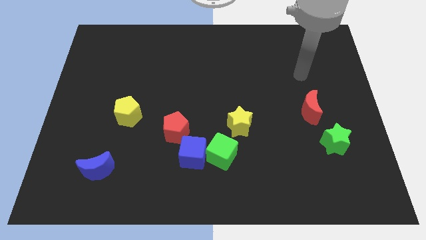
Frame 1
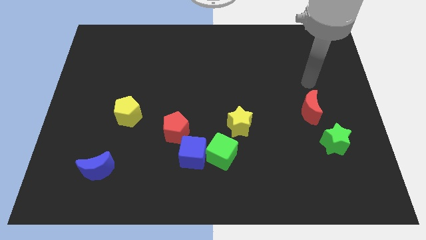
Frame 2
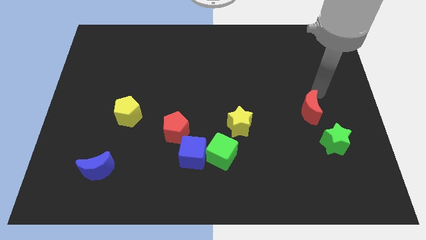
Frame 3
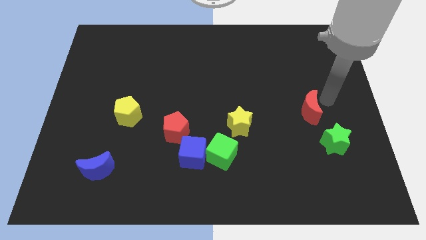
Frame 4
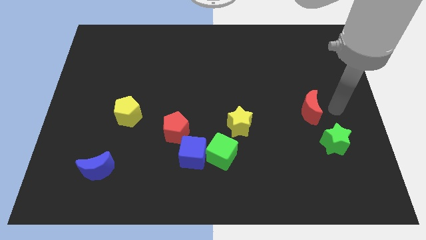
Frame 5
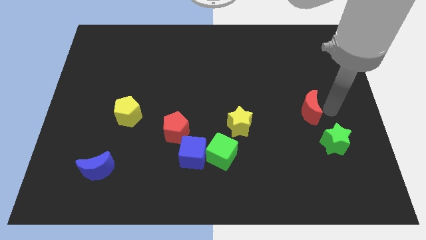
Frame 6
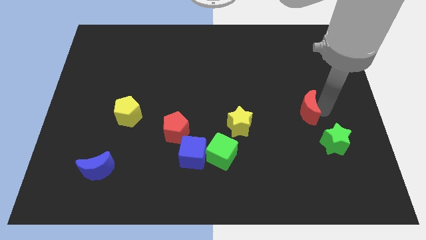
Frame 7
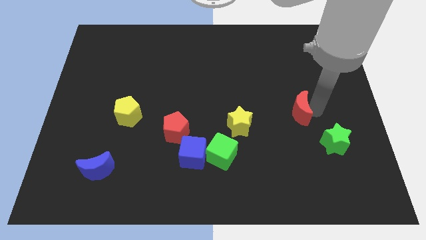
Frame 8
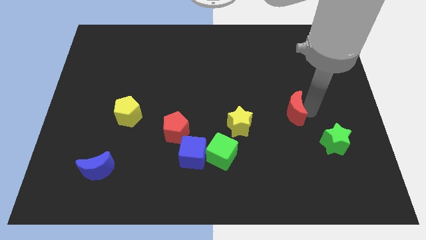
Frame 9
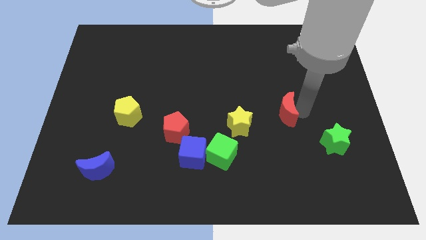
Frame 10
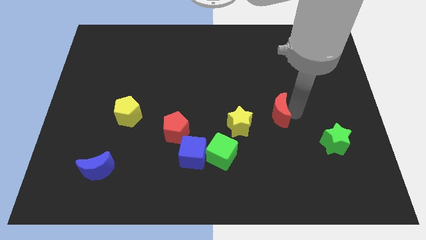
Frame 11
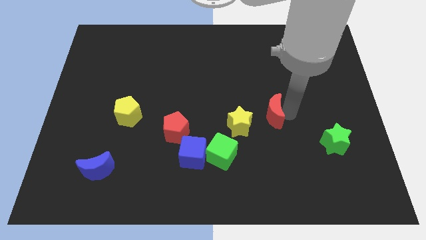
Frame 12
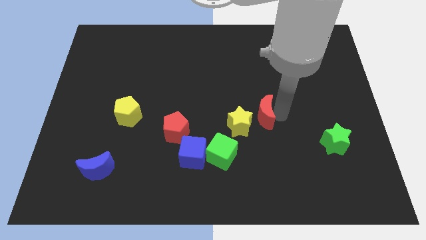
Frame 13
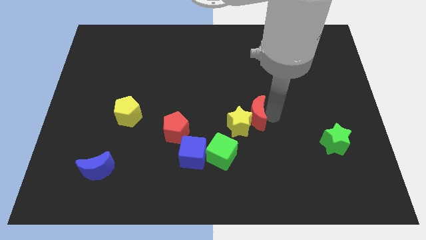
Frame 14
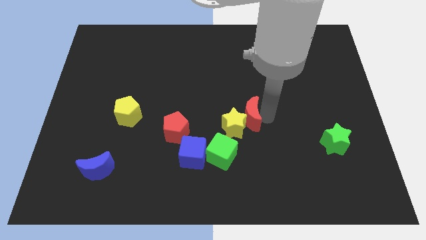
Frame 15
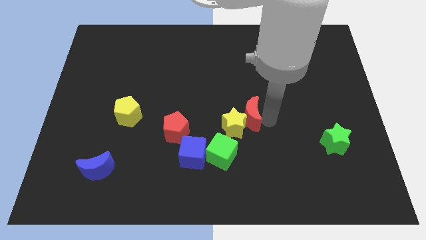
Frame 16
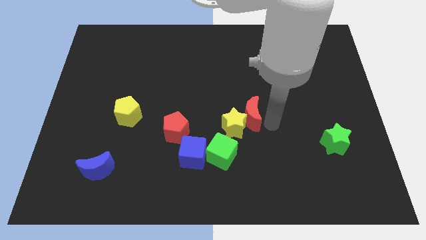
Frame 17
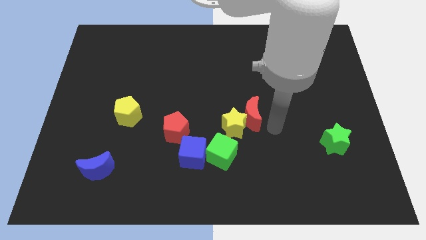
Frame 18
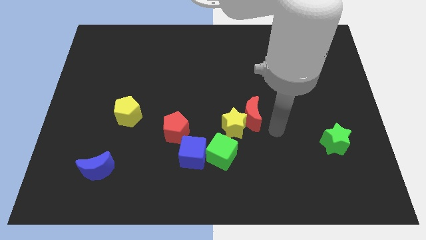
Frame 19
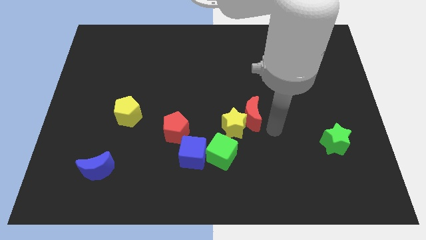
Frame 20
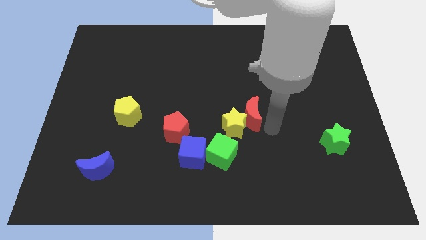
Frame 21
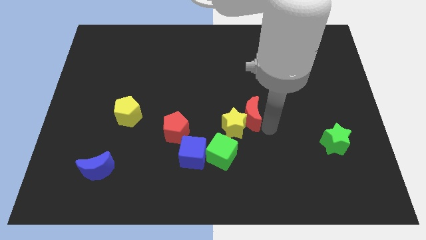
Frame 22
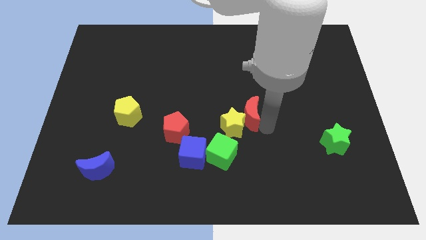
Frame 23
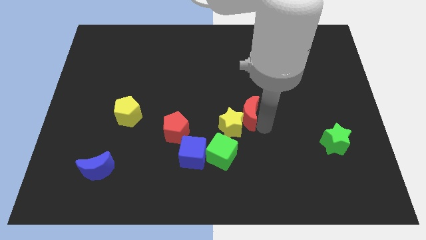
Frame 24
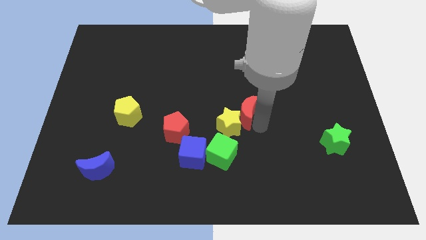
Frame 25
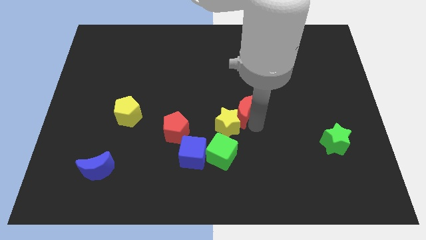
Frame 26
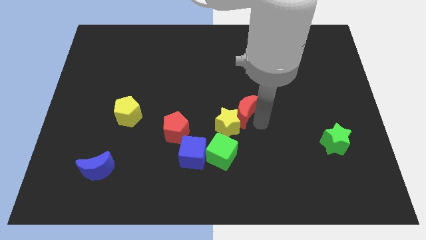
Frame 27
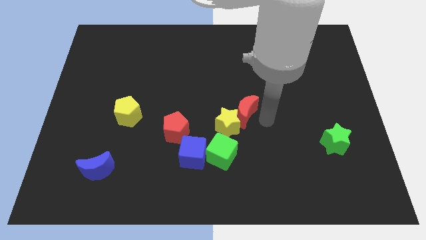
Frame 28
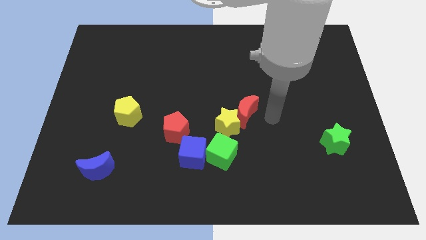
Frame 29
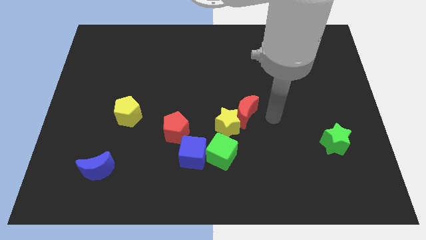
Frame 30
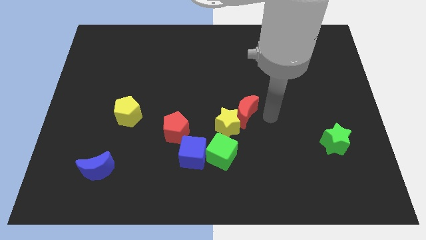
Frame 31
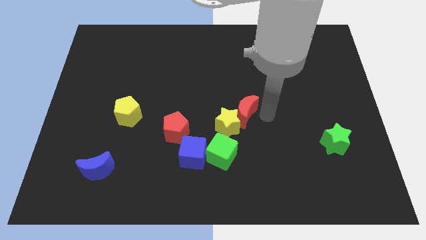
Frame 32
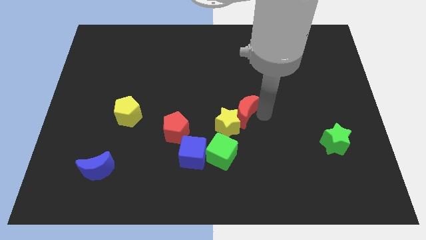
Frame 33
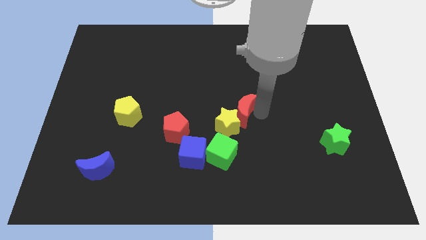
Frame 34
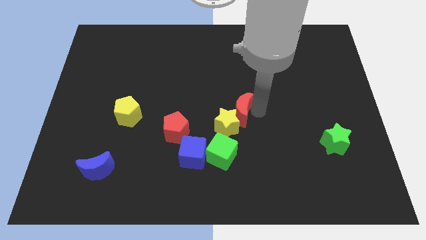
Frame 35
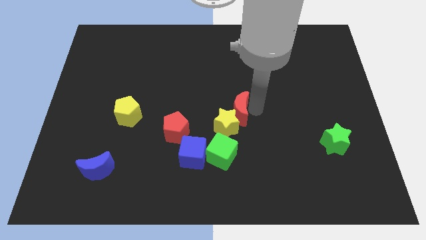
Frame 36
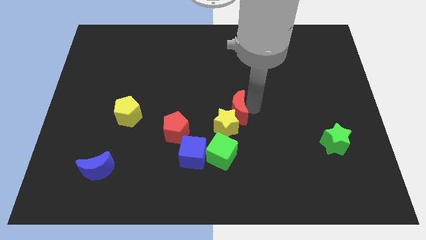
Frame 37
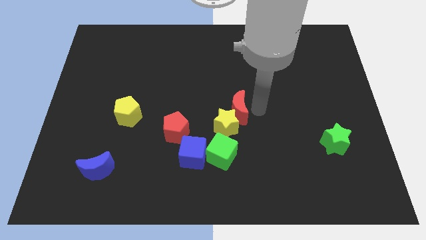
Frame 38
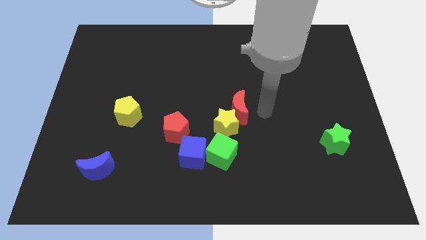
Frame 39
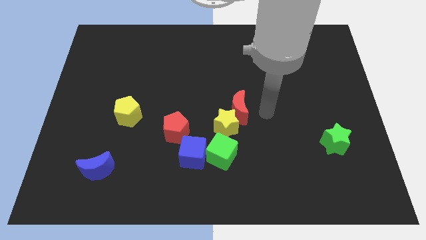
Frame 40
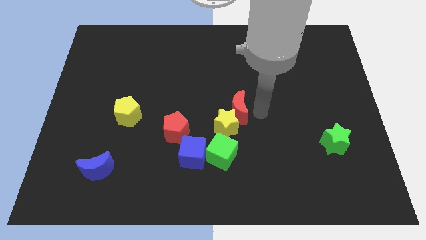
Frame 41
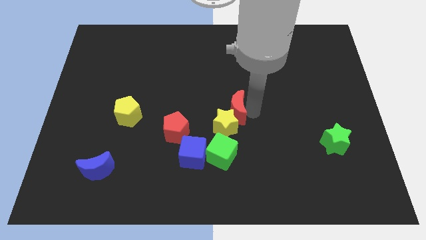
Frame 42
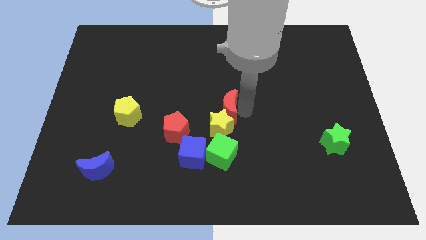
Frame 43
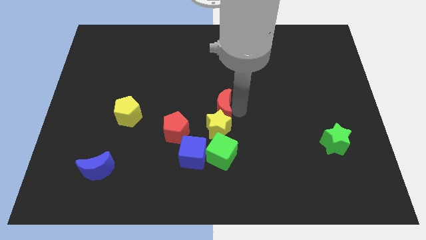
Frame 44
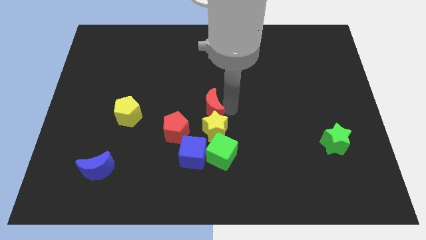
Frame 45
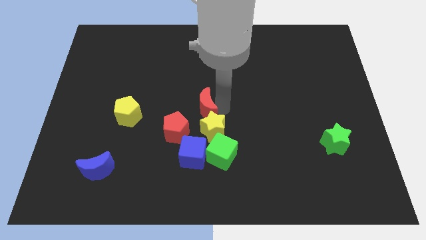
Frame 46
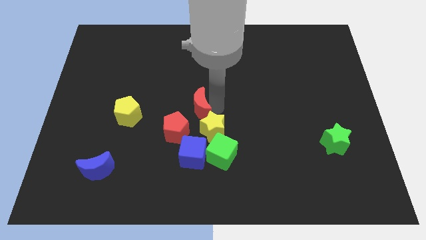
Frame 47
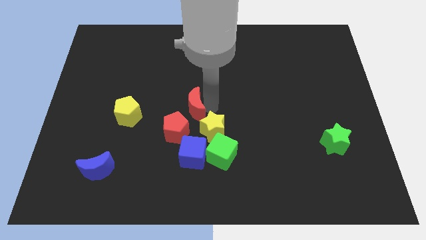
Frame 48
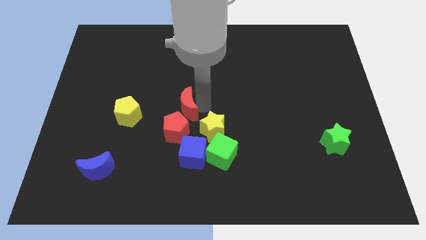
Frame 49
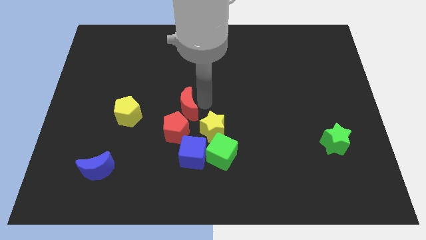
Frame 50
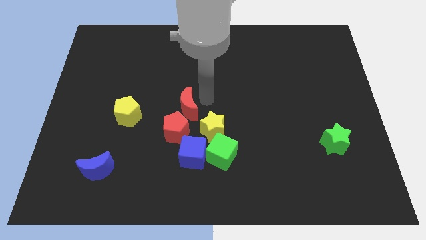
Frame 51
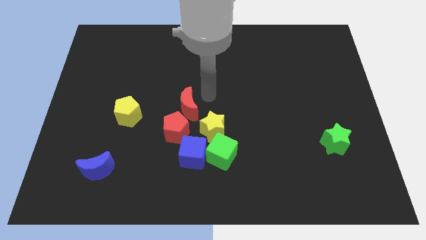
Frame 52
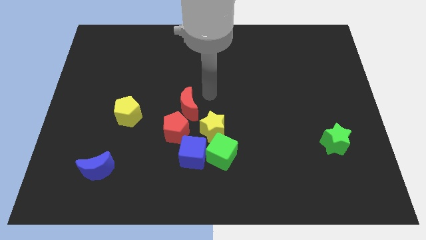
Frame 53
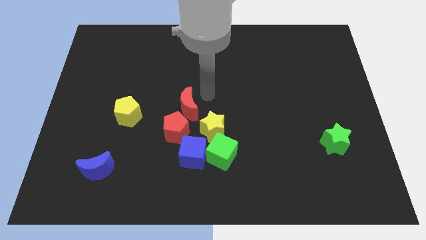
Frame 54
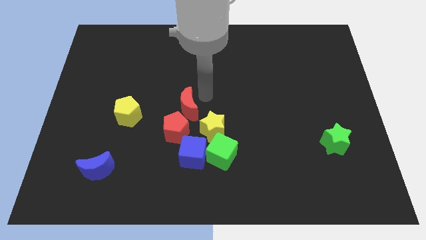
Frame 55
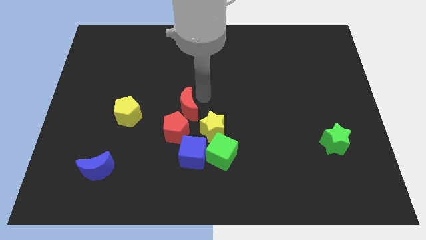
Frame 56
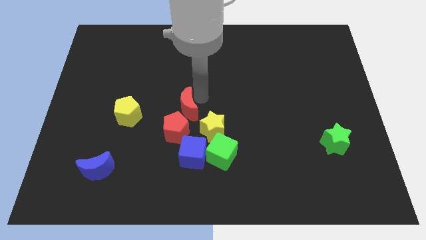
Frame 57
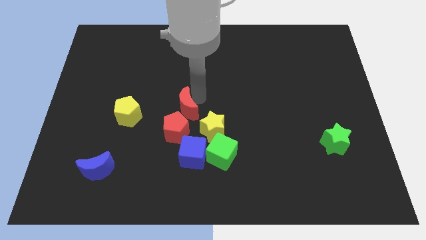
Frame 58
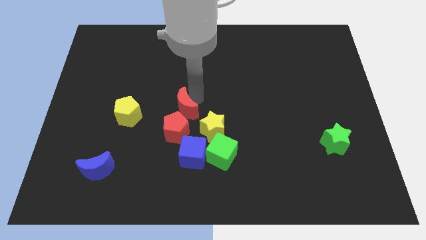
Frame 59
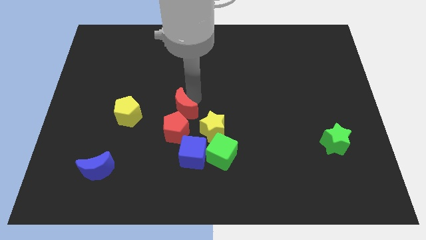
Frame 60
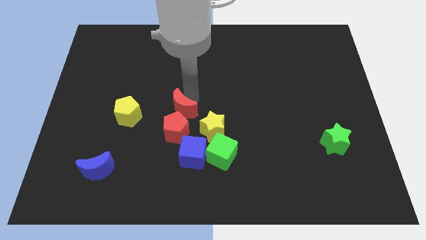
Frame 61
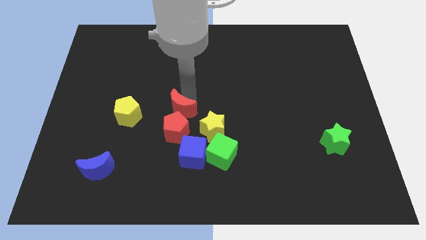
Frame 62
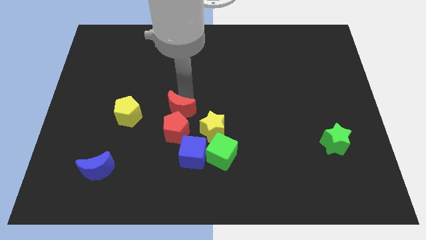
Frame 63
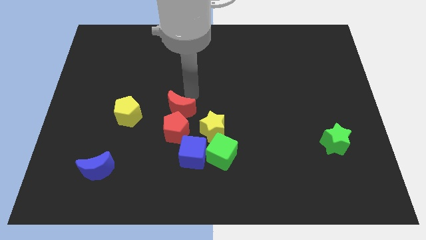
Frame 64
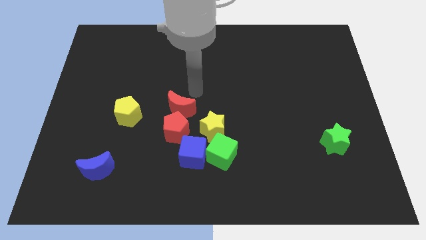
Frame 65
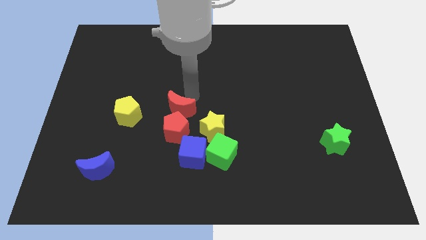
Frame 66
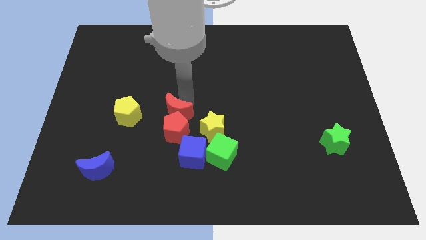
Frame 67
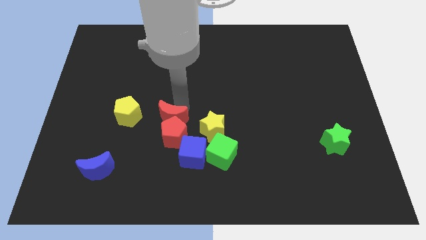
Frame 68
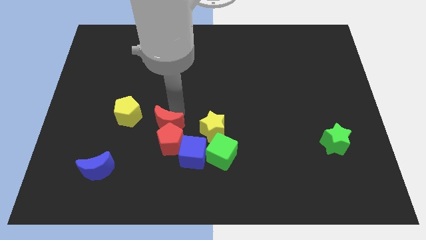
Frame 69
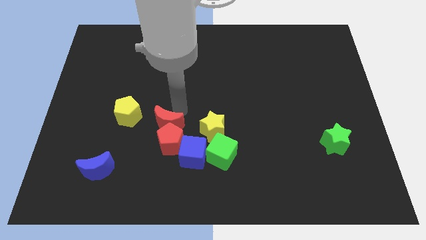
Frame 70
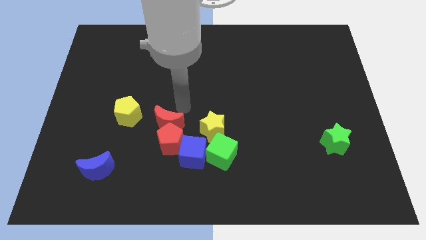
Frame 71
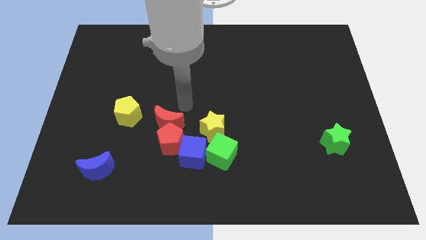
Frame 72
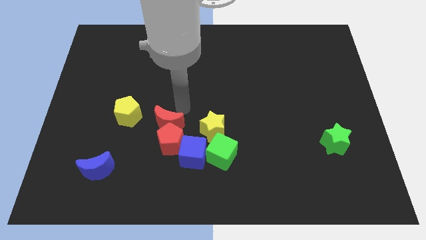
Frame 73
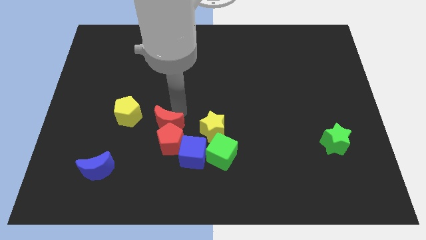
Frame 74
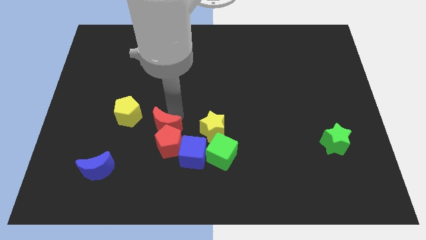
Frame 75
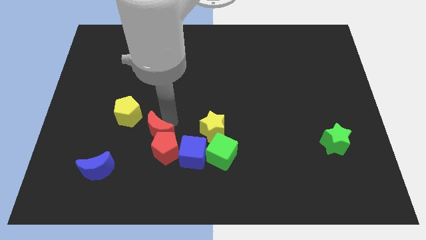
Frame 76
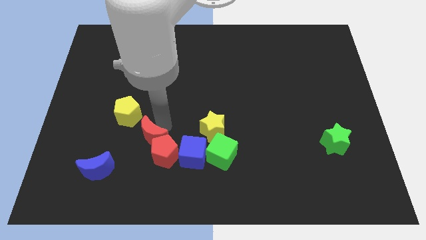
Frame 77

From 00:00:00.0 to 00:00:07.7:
move the red moon to the left side of the blue cube
